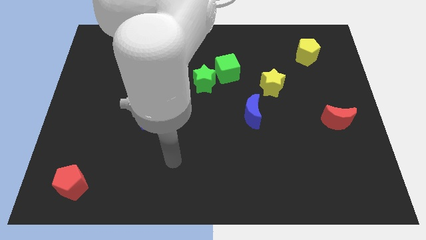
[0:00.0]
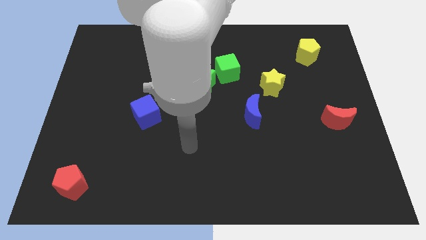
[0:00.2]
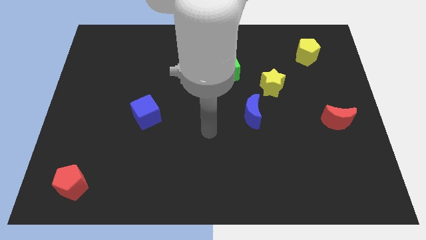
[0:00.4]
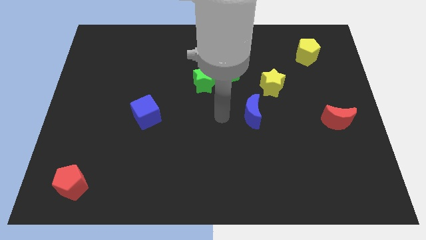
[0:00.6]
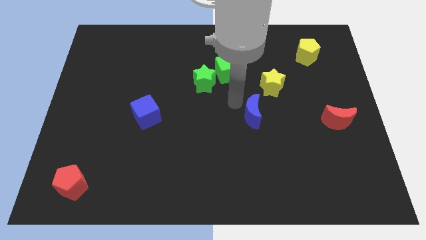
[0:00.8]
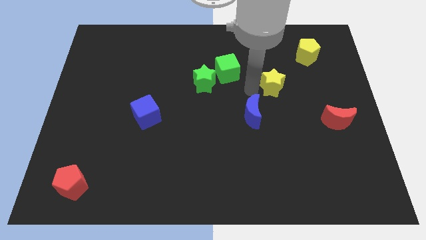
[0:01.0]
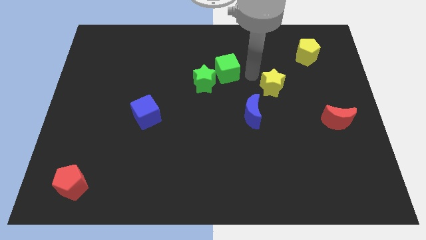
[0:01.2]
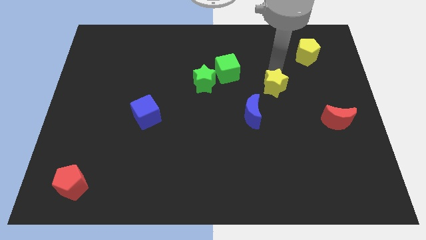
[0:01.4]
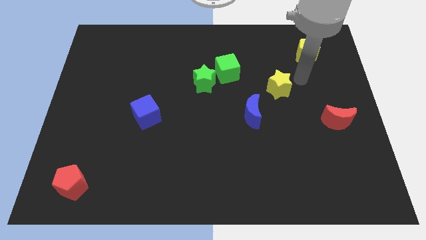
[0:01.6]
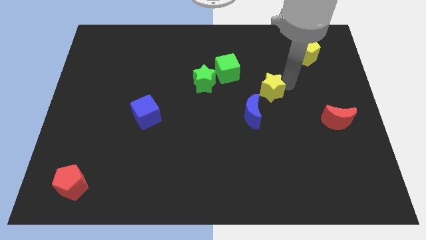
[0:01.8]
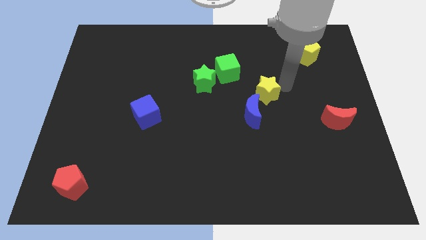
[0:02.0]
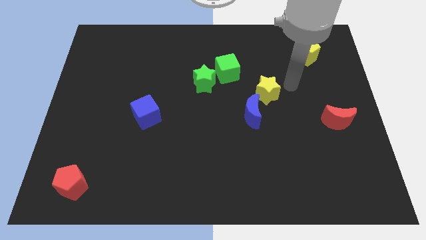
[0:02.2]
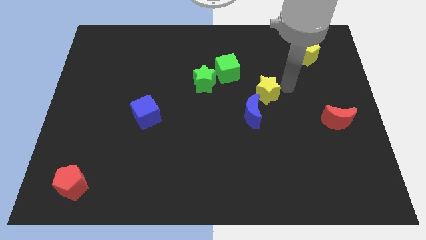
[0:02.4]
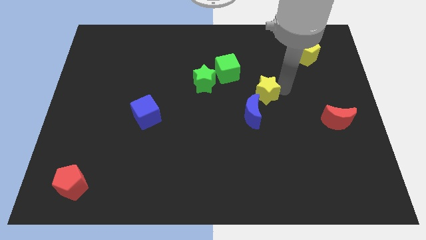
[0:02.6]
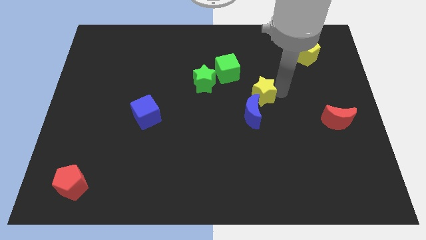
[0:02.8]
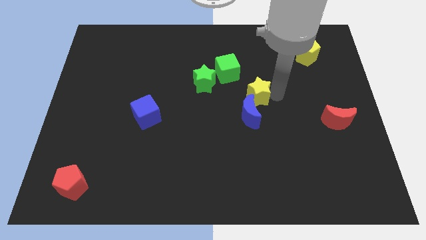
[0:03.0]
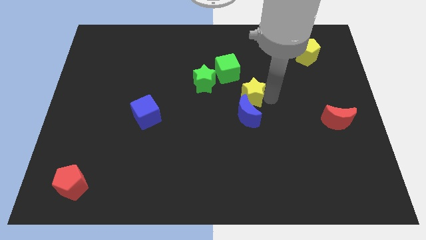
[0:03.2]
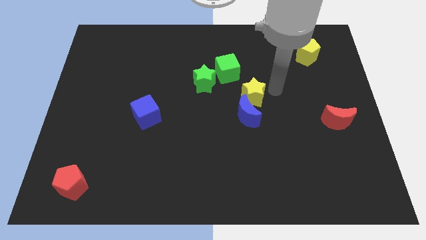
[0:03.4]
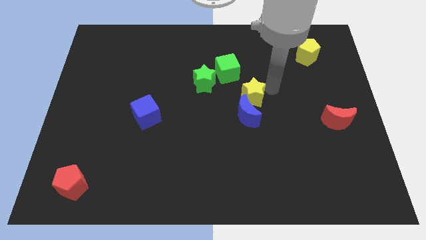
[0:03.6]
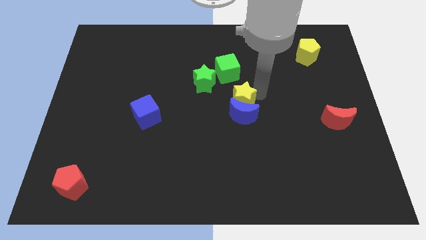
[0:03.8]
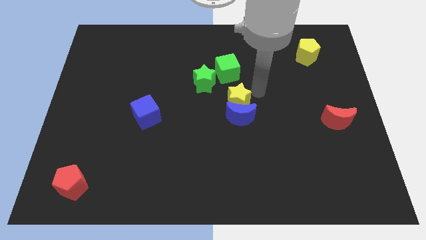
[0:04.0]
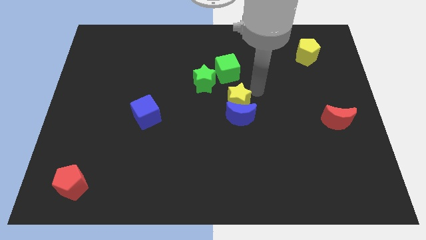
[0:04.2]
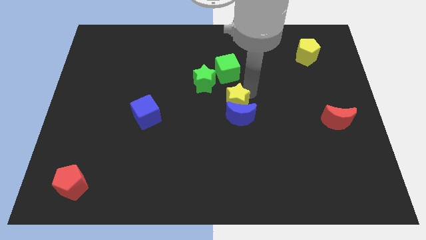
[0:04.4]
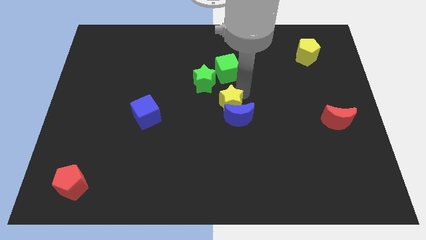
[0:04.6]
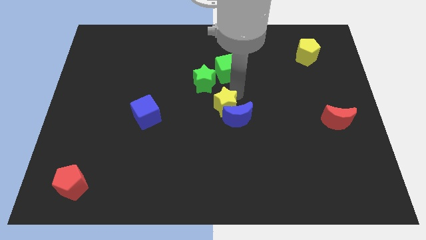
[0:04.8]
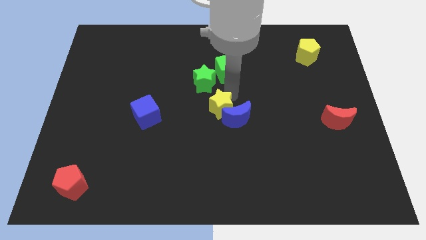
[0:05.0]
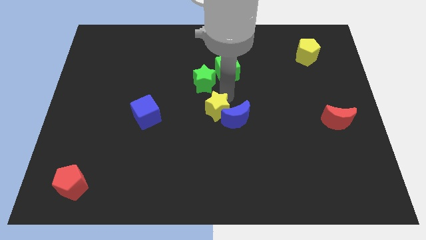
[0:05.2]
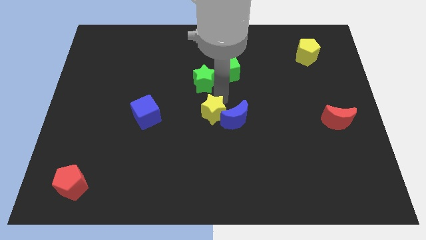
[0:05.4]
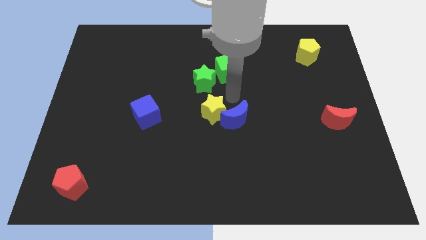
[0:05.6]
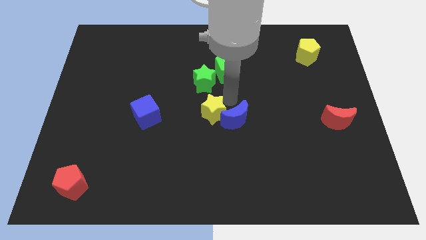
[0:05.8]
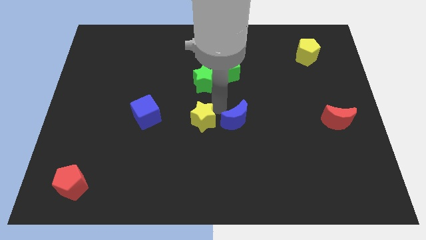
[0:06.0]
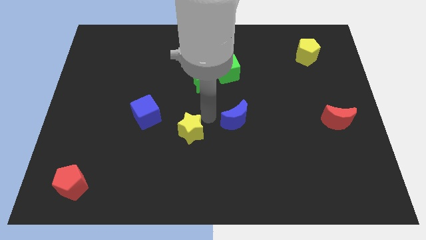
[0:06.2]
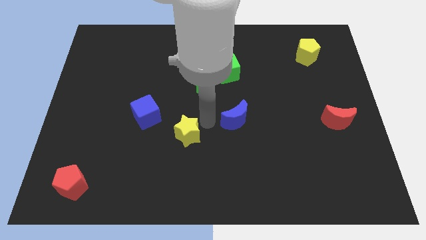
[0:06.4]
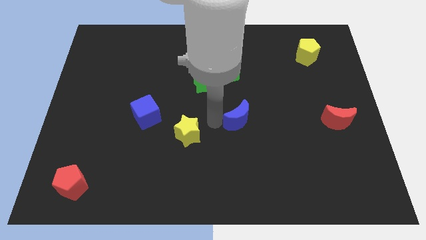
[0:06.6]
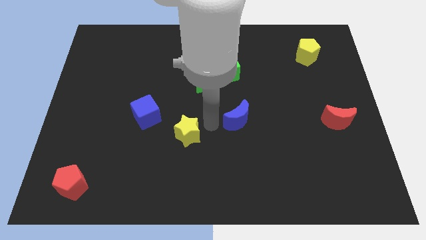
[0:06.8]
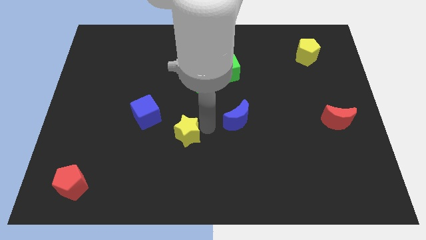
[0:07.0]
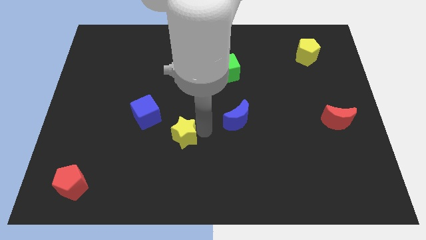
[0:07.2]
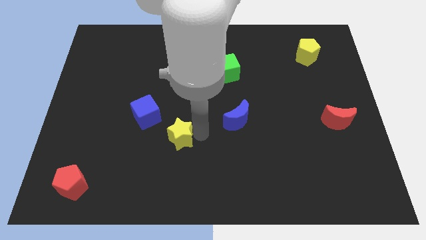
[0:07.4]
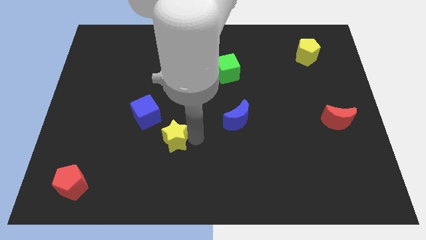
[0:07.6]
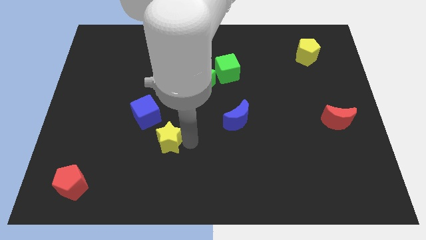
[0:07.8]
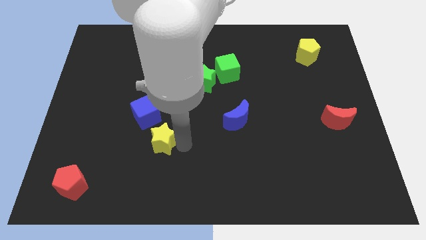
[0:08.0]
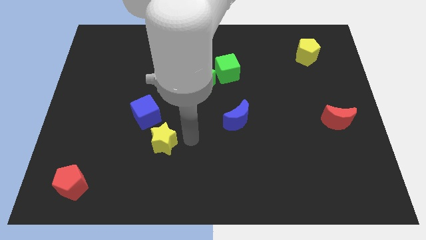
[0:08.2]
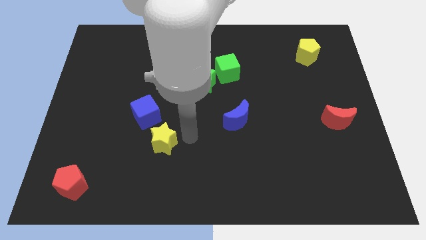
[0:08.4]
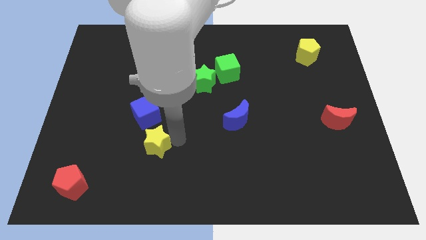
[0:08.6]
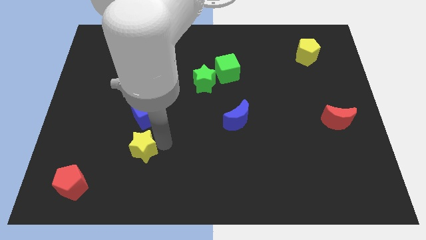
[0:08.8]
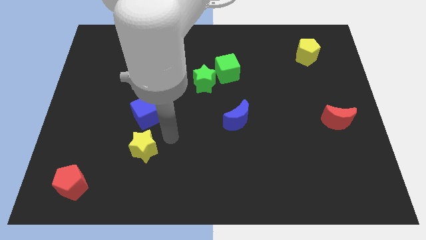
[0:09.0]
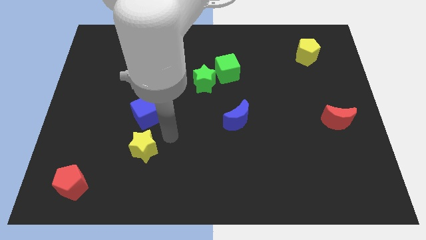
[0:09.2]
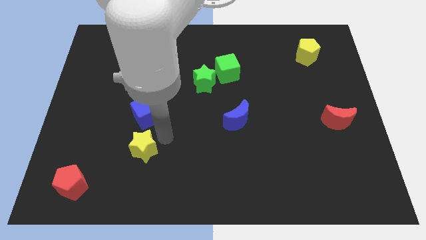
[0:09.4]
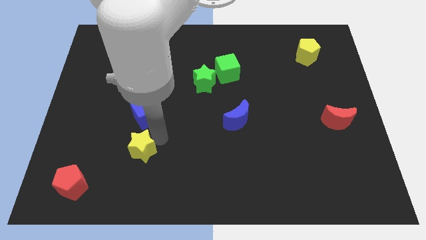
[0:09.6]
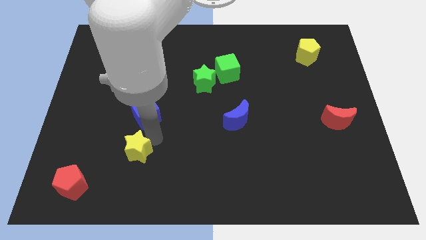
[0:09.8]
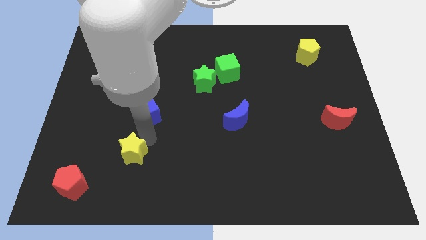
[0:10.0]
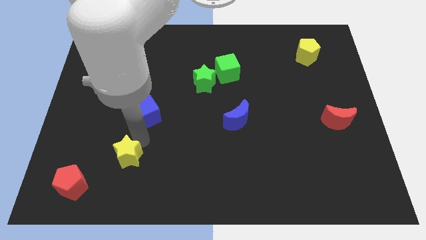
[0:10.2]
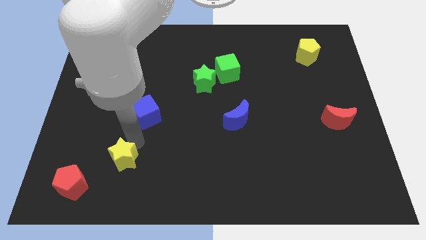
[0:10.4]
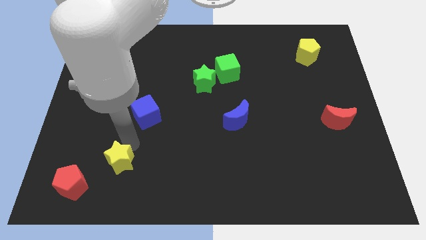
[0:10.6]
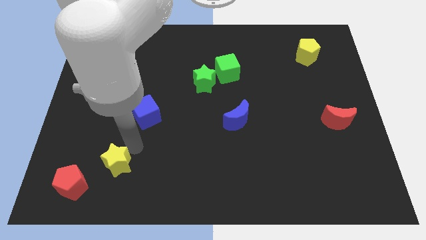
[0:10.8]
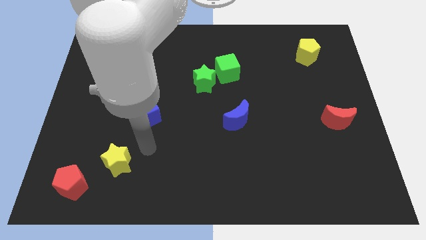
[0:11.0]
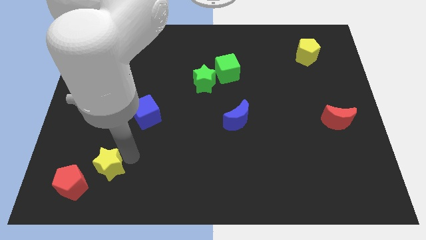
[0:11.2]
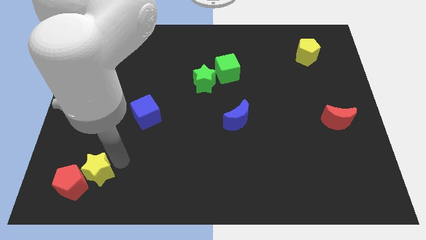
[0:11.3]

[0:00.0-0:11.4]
slide the yellow star towards the red pentagon

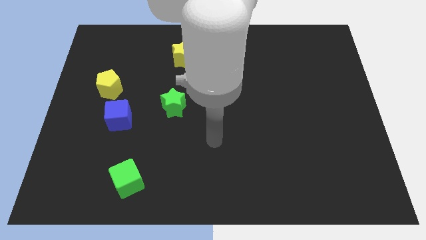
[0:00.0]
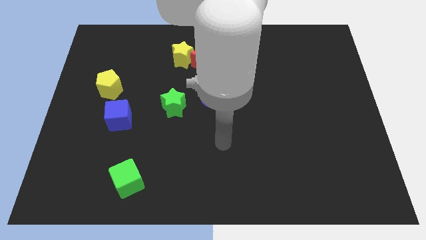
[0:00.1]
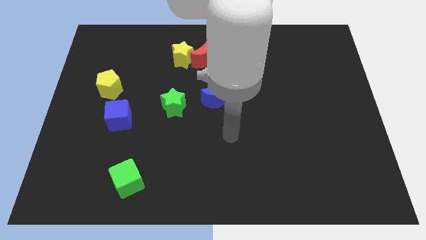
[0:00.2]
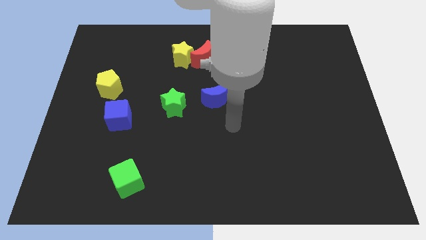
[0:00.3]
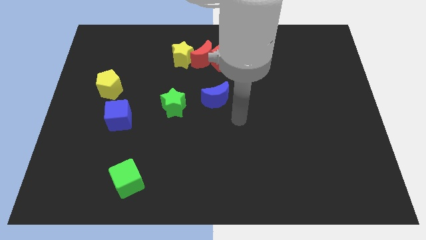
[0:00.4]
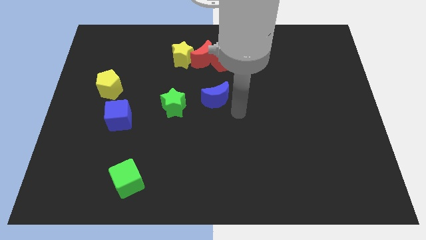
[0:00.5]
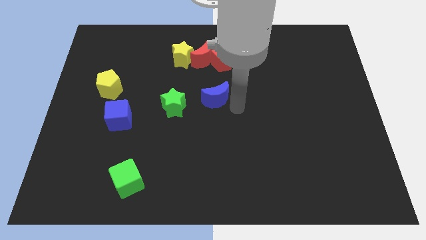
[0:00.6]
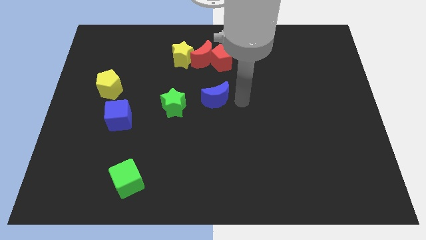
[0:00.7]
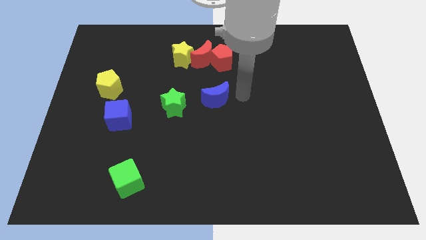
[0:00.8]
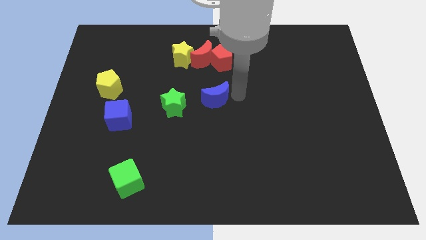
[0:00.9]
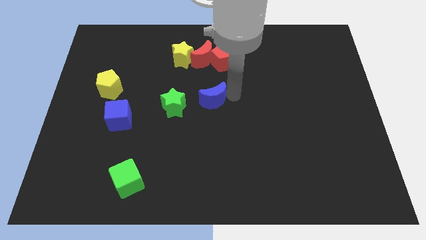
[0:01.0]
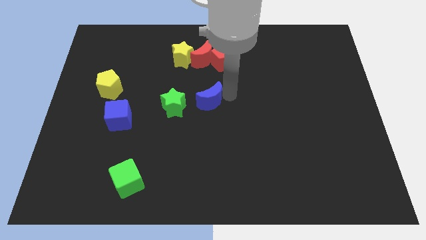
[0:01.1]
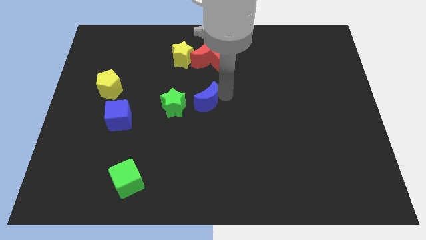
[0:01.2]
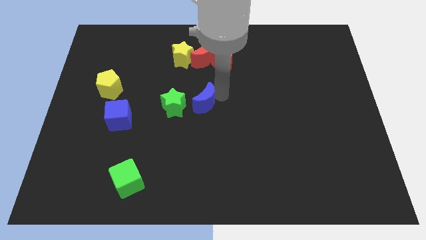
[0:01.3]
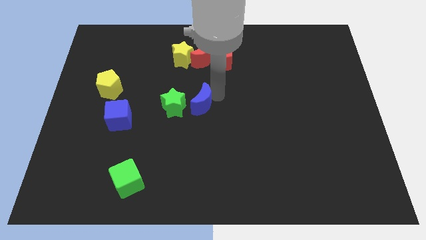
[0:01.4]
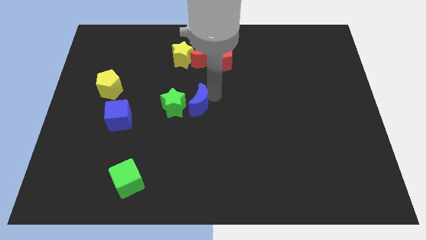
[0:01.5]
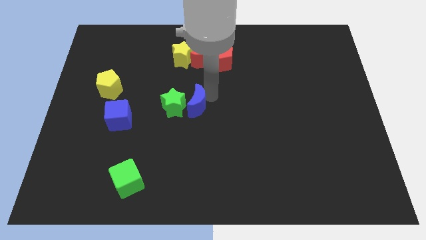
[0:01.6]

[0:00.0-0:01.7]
put the blue moon close to the green star
